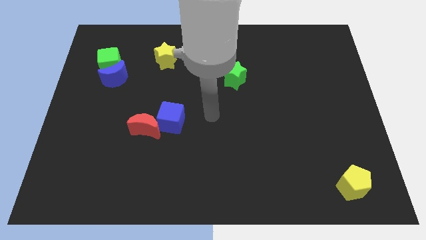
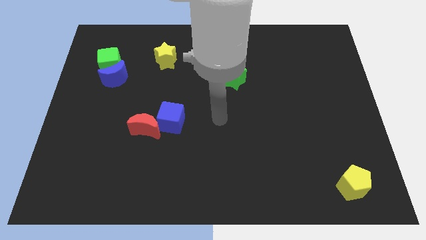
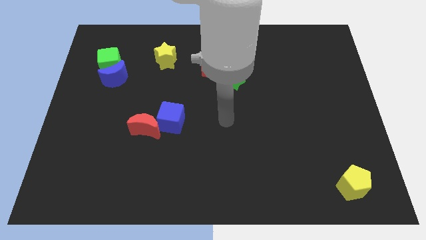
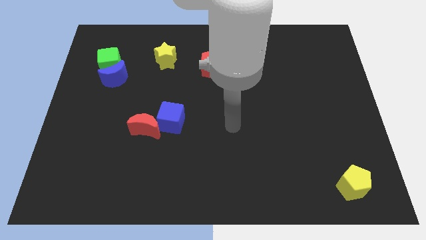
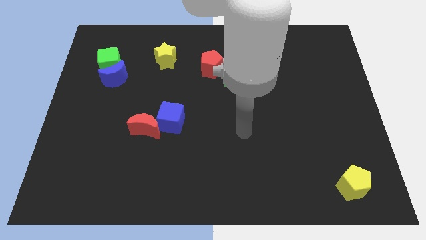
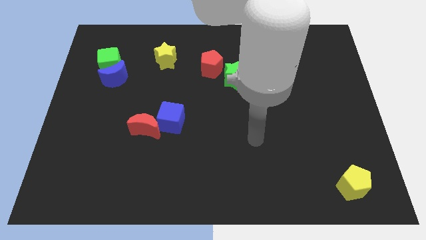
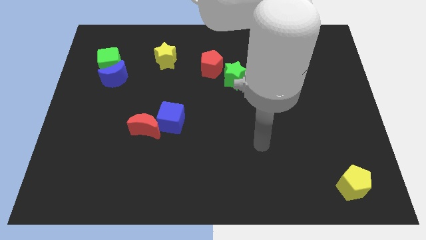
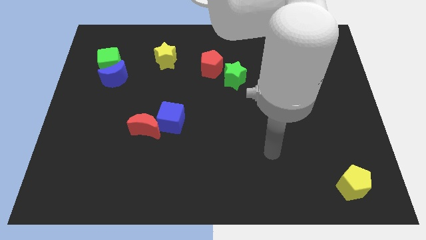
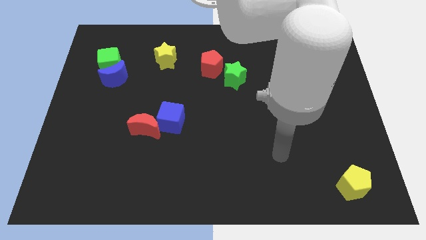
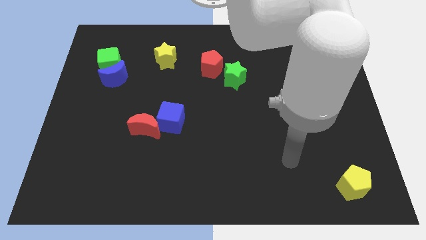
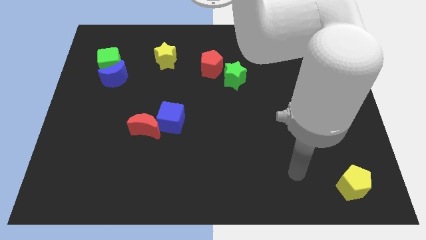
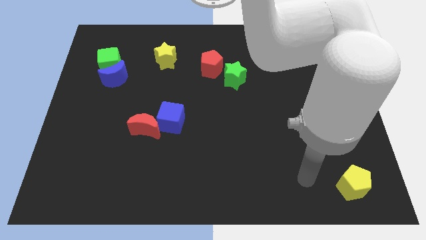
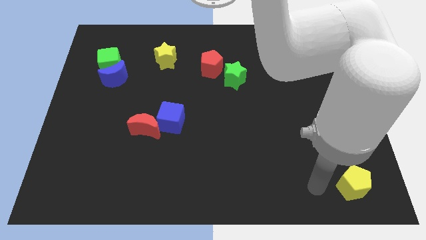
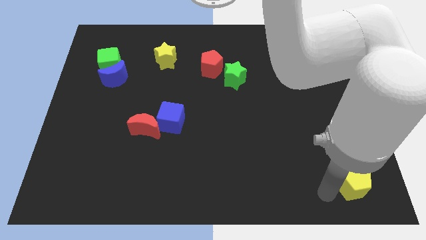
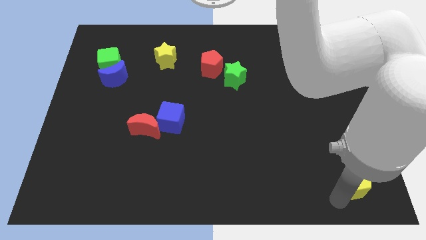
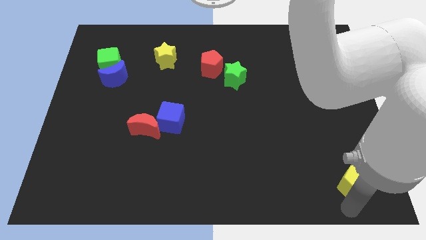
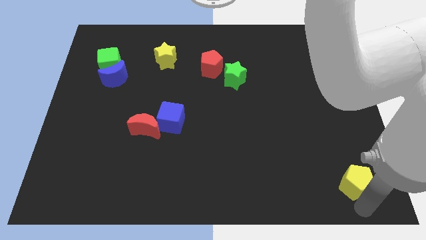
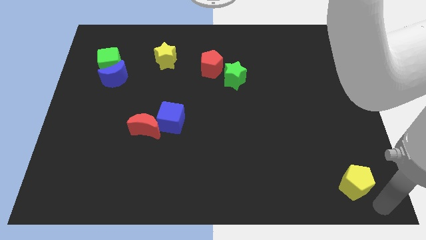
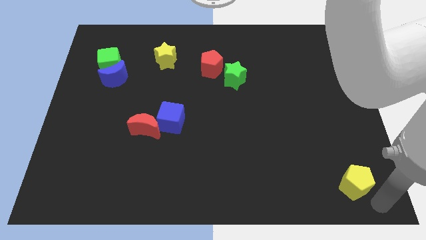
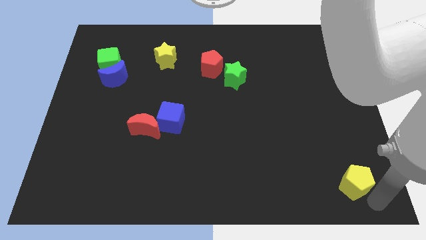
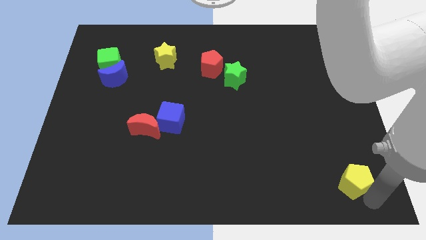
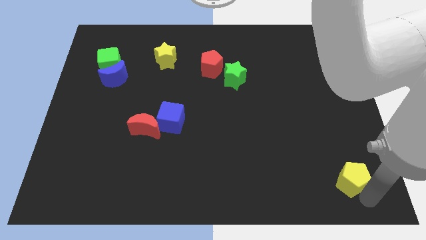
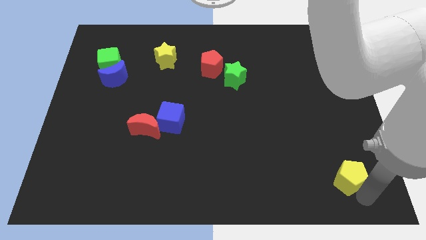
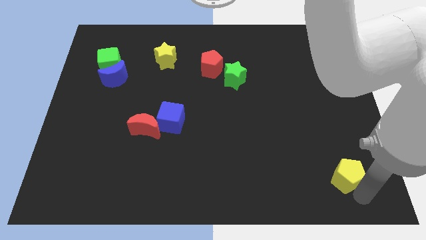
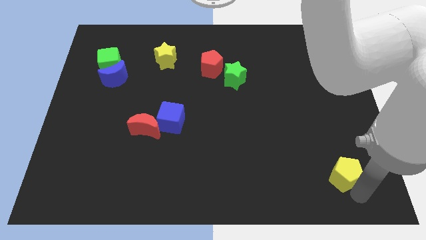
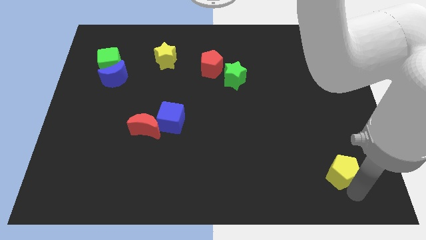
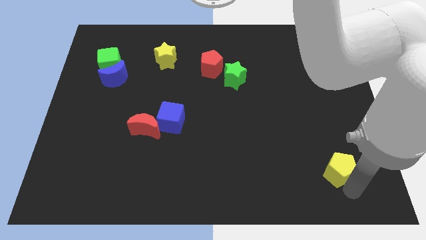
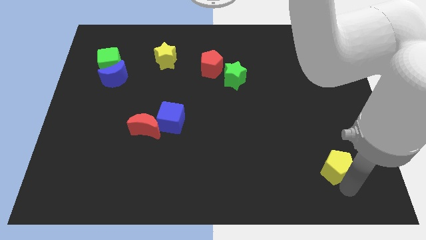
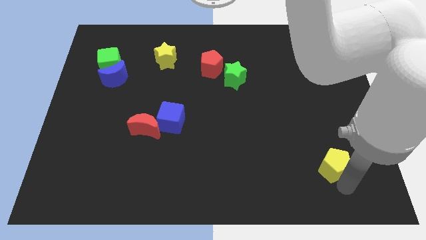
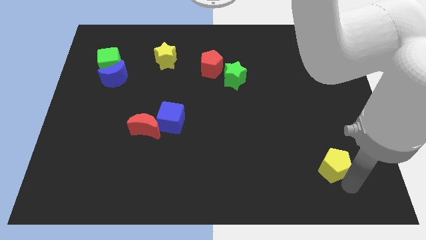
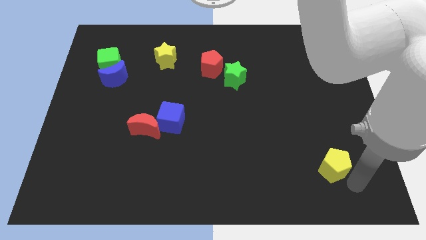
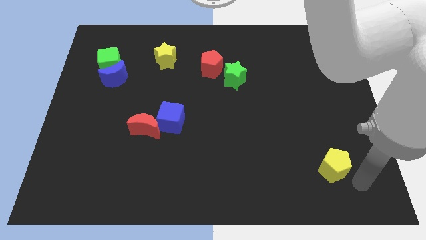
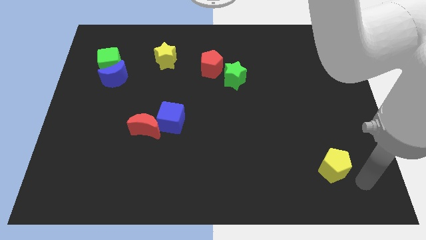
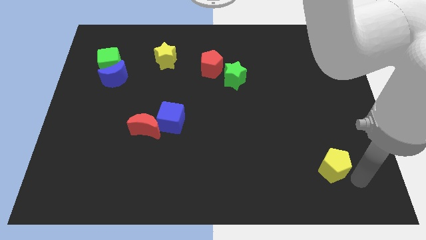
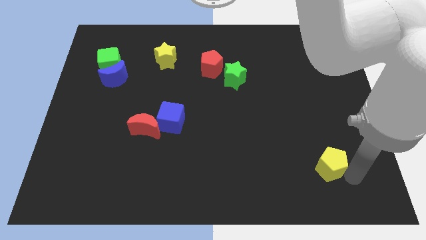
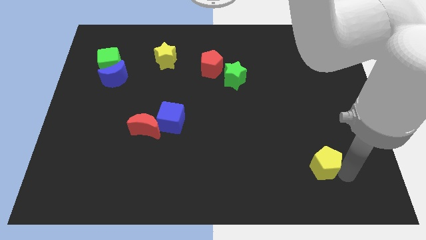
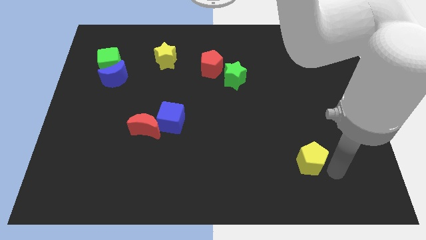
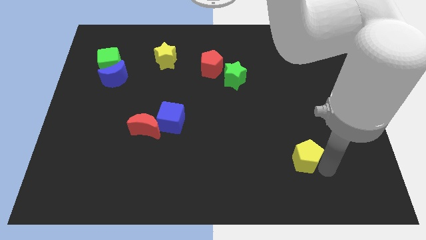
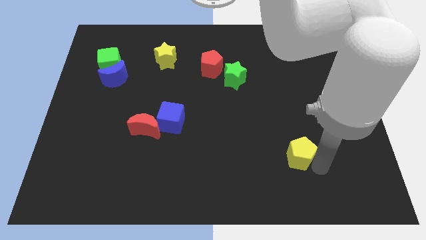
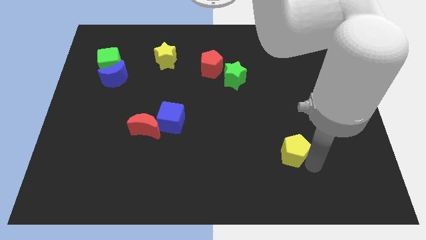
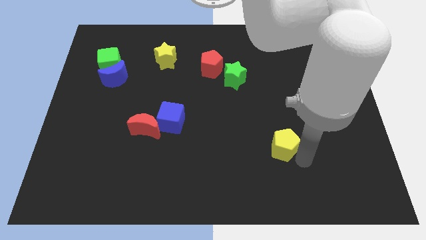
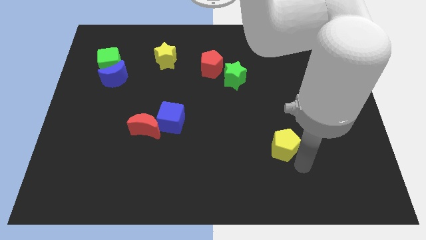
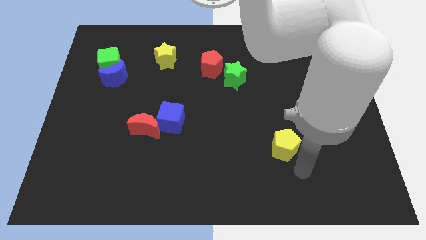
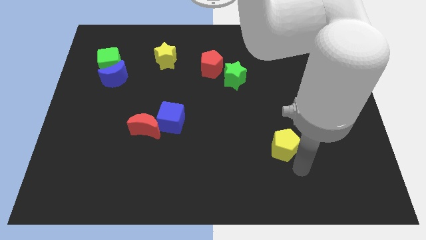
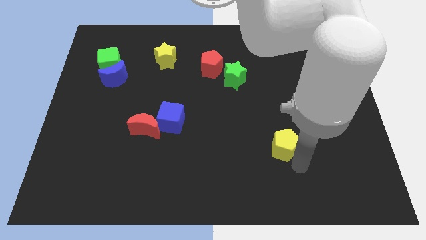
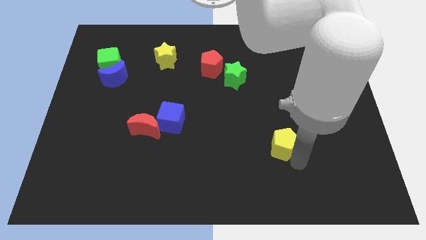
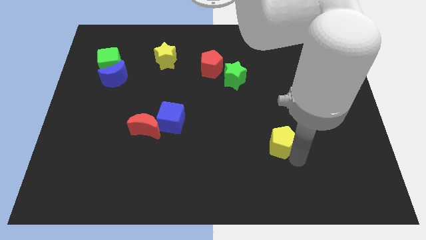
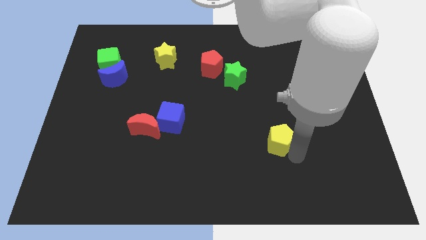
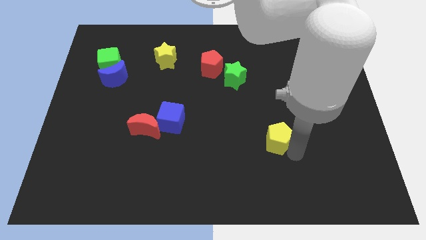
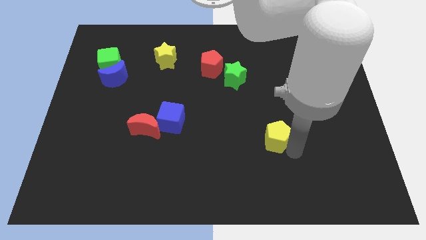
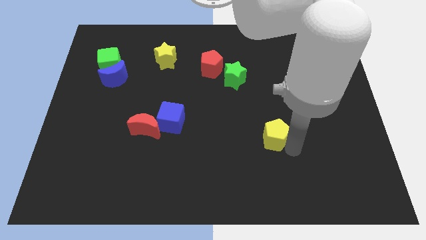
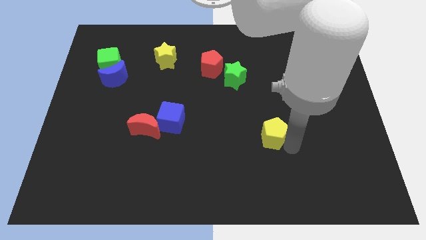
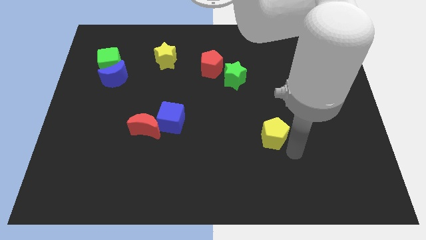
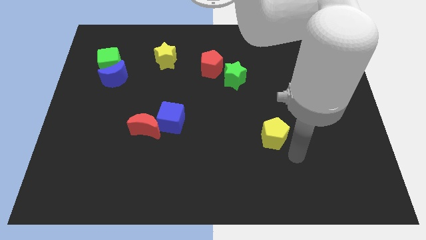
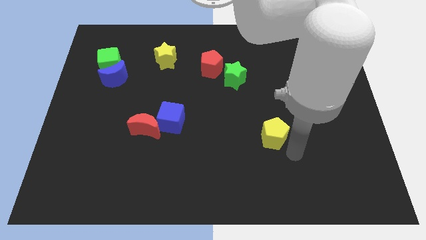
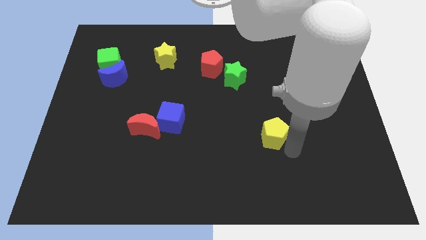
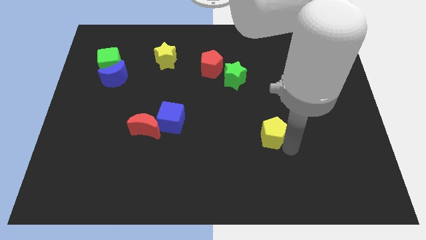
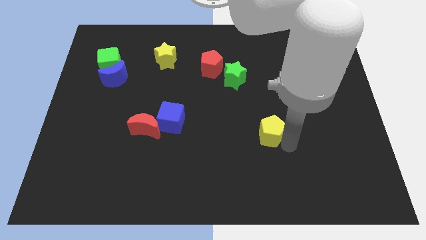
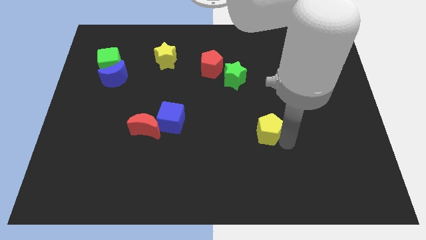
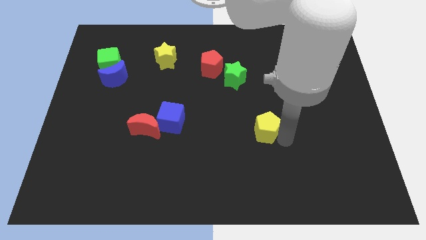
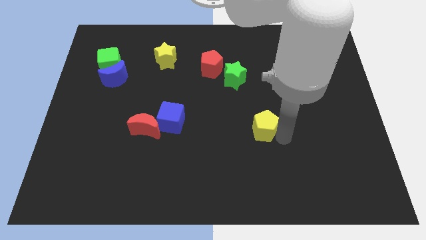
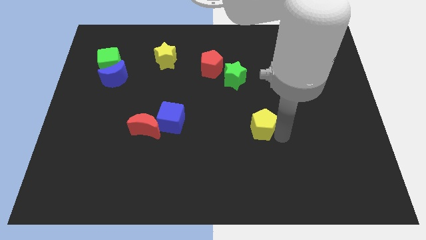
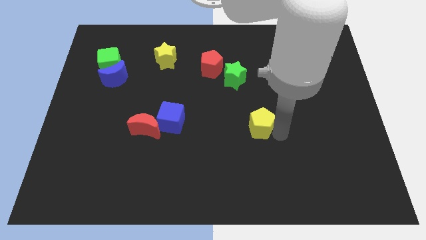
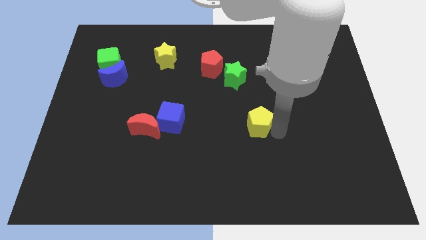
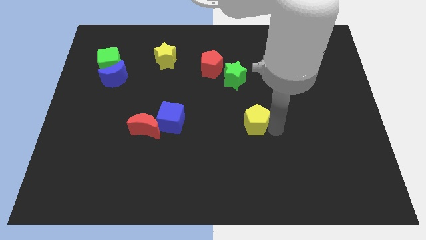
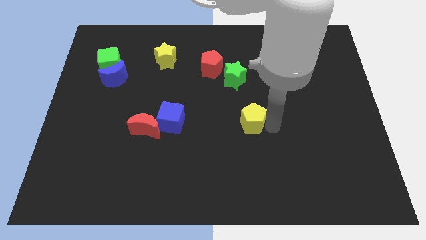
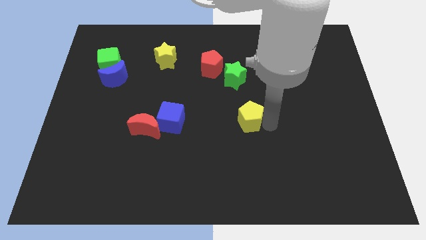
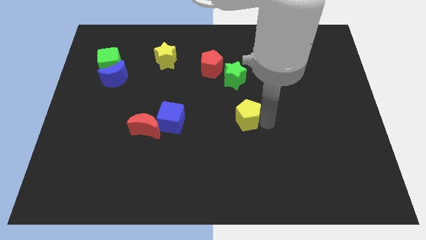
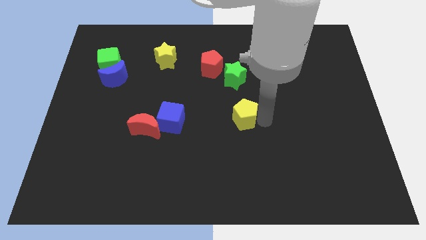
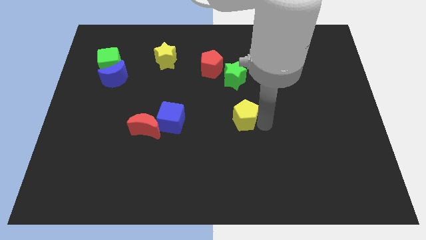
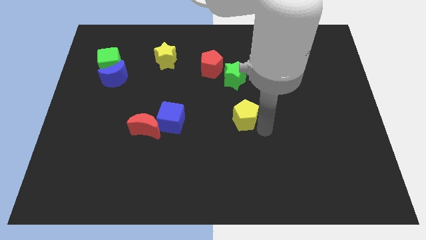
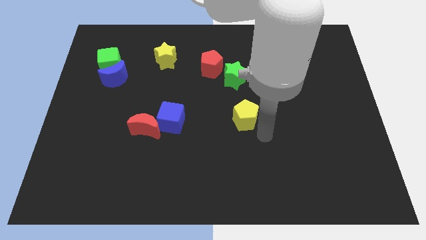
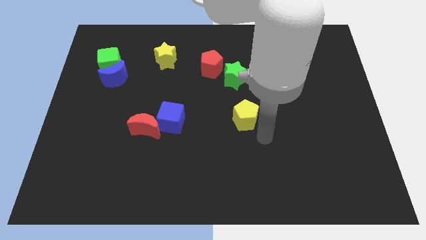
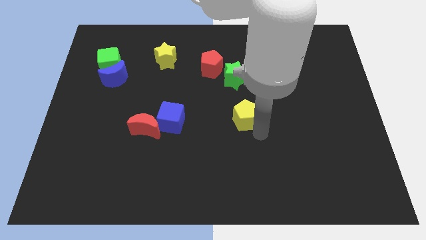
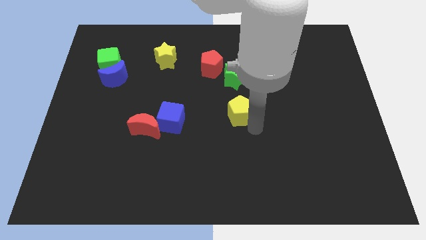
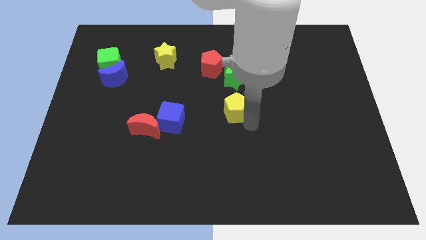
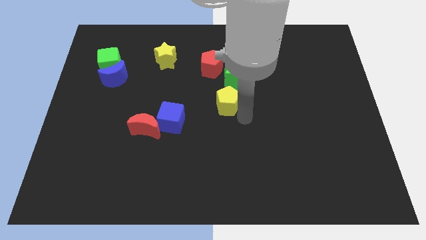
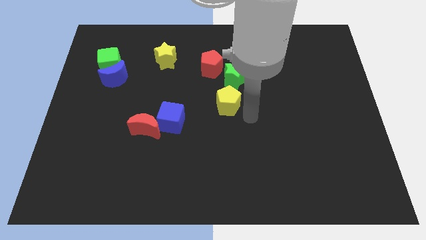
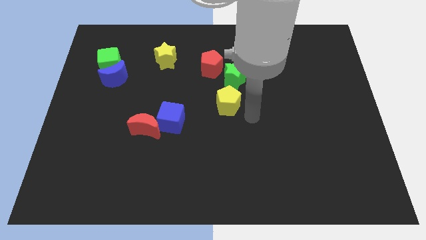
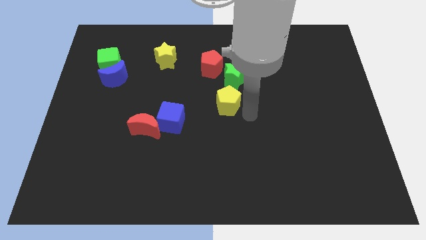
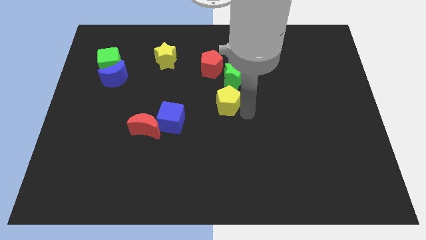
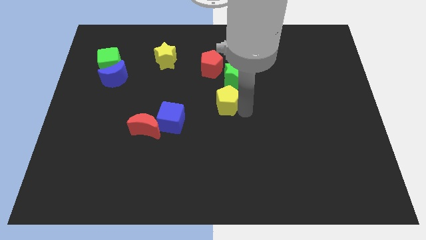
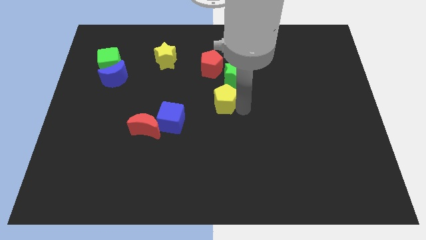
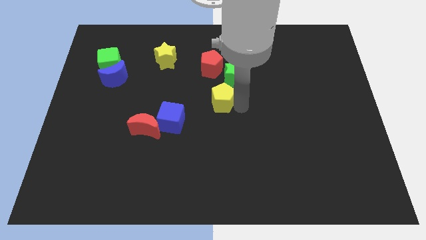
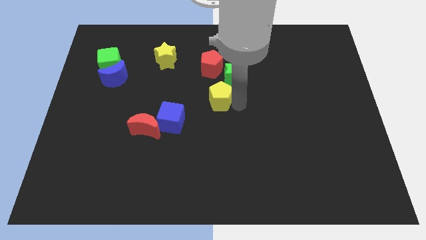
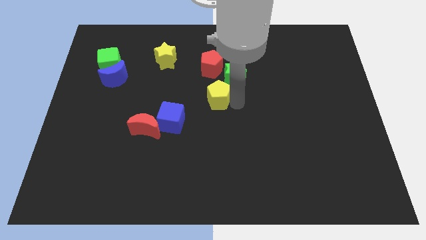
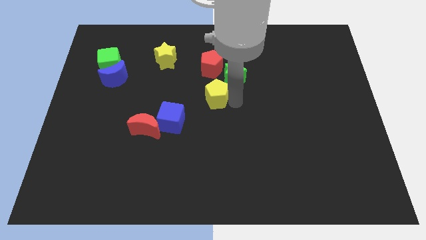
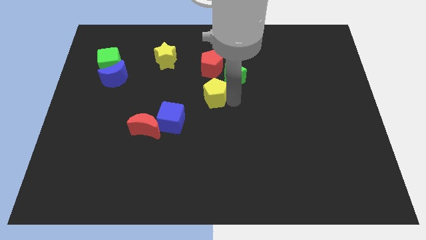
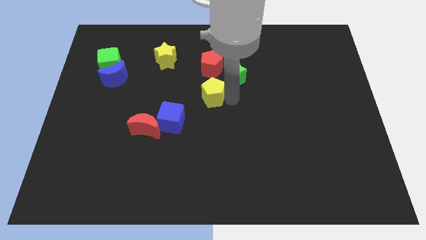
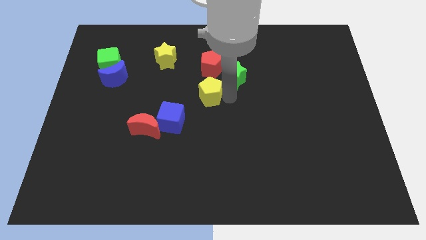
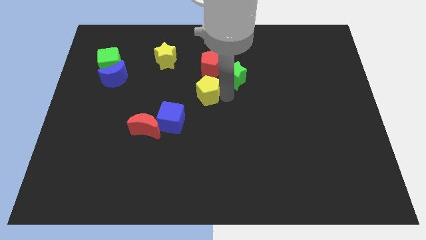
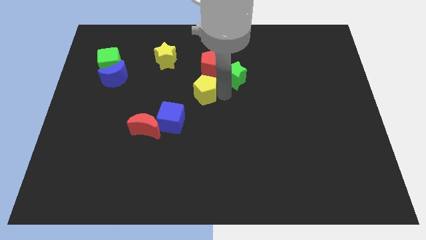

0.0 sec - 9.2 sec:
put the yellow pentagon to the bottom left of the red pentagon
